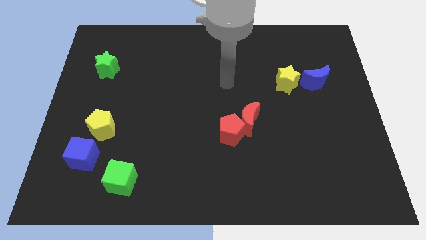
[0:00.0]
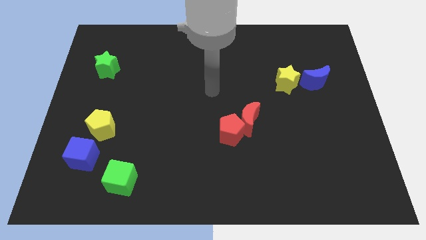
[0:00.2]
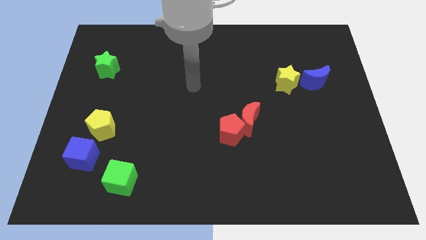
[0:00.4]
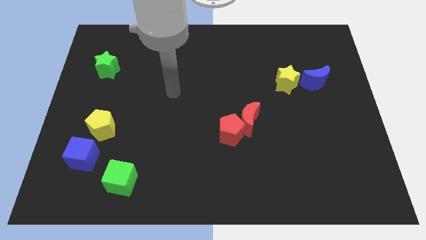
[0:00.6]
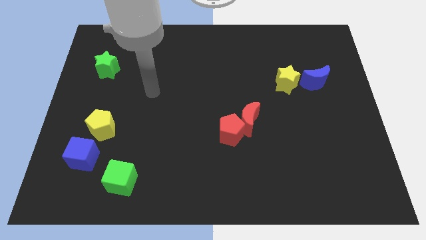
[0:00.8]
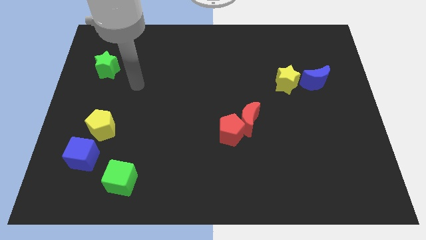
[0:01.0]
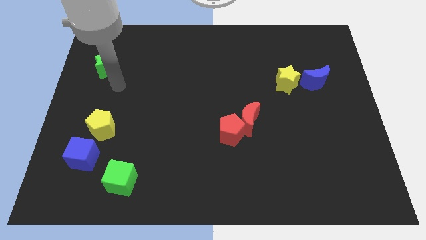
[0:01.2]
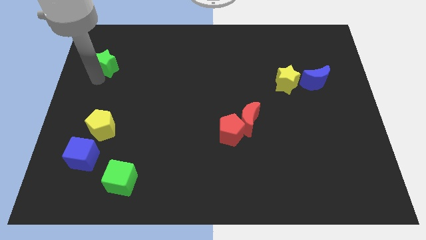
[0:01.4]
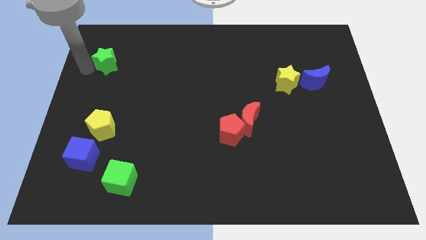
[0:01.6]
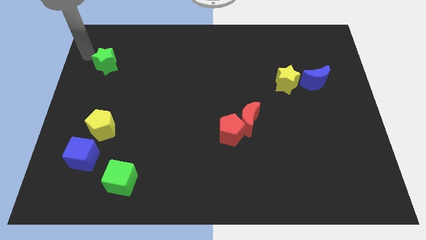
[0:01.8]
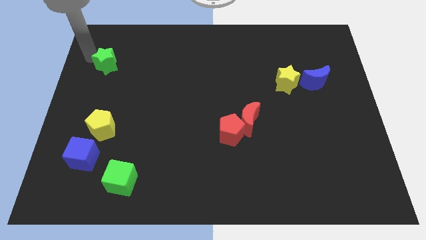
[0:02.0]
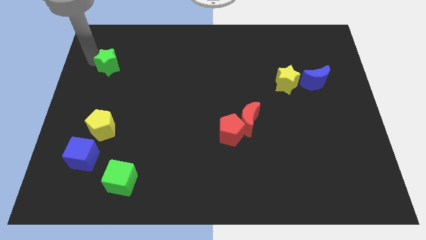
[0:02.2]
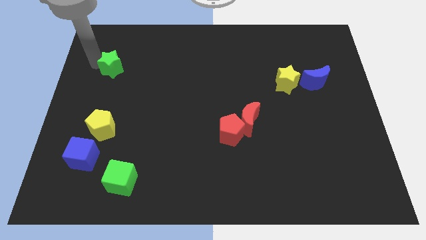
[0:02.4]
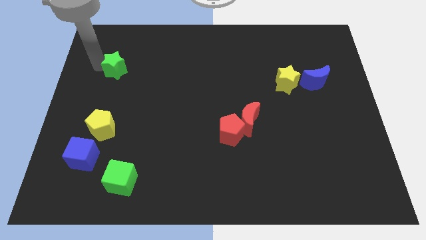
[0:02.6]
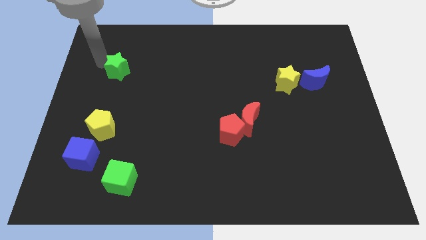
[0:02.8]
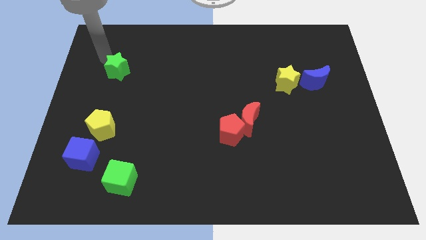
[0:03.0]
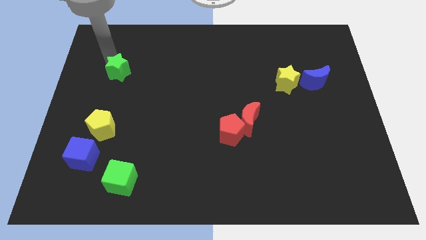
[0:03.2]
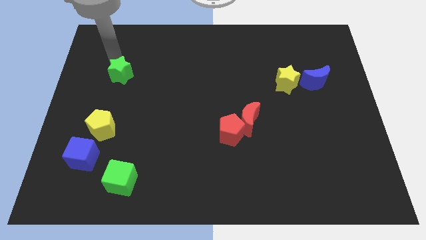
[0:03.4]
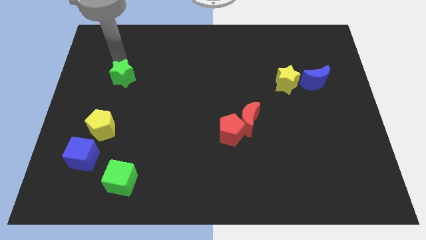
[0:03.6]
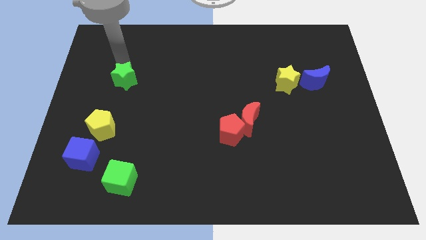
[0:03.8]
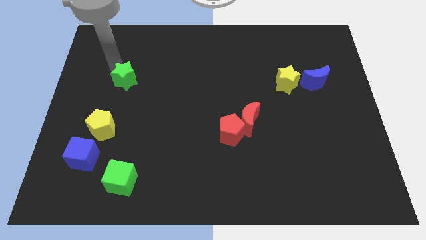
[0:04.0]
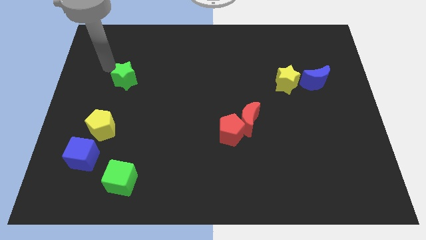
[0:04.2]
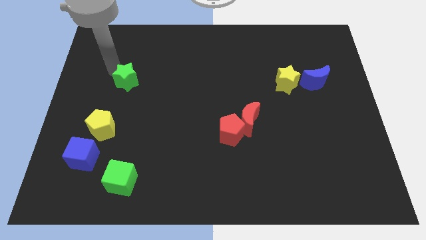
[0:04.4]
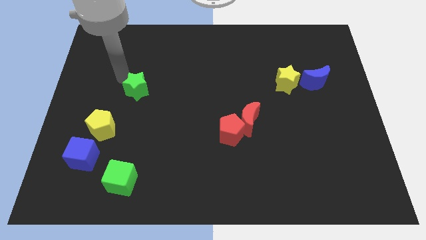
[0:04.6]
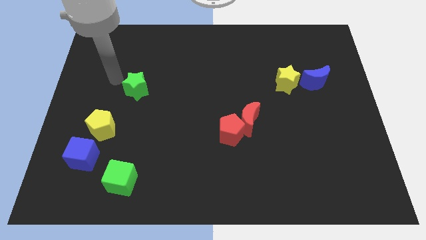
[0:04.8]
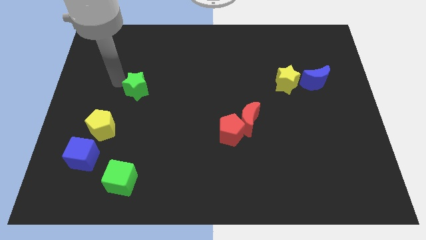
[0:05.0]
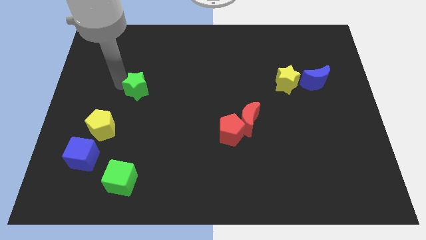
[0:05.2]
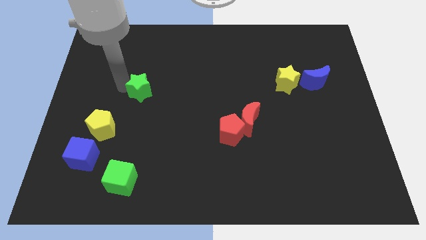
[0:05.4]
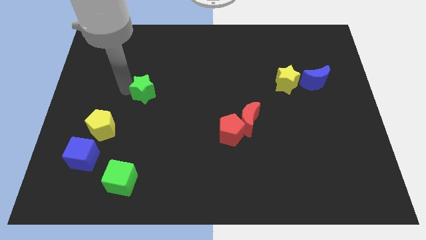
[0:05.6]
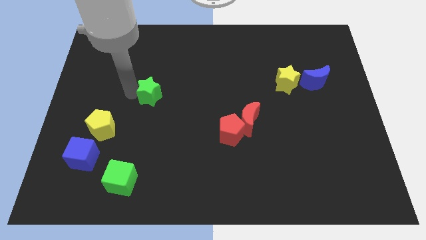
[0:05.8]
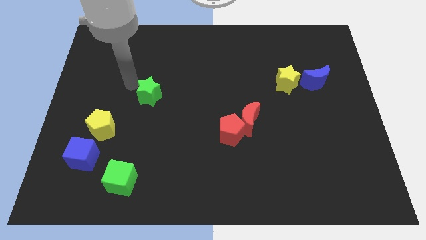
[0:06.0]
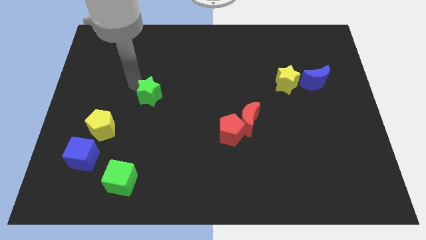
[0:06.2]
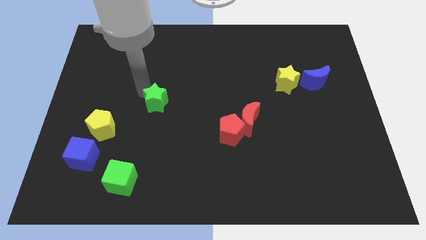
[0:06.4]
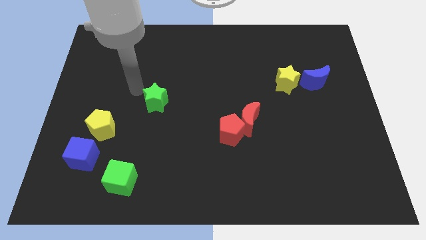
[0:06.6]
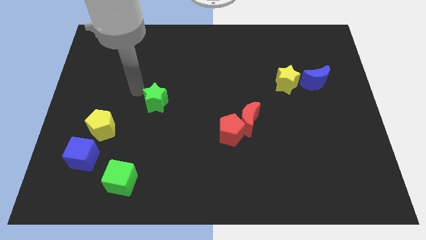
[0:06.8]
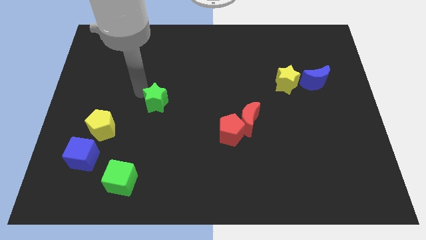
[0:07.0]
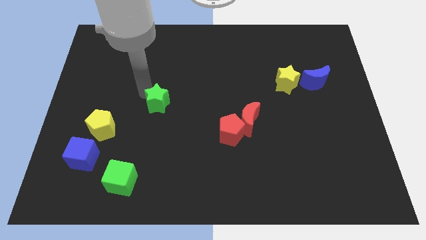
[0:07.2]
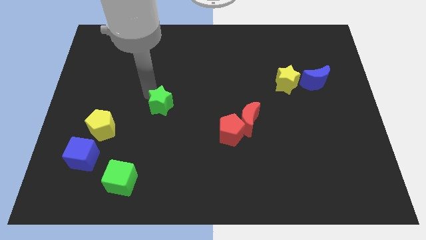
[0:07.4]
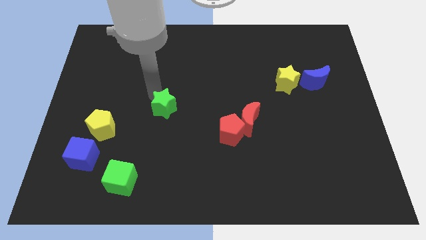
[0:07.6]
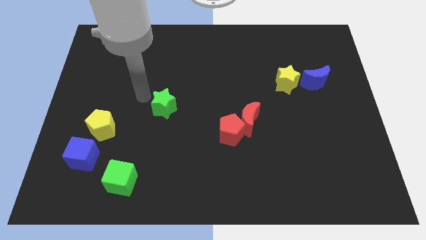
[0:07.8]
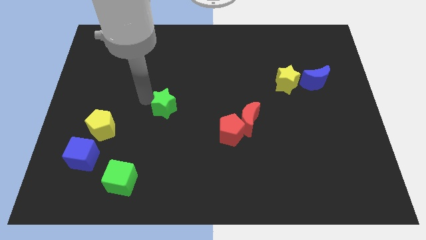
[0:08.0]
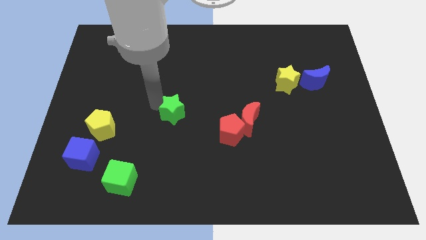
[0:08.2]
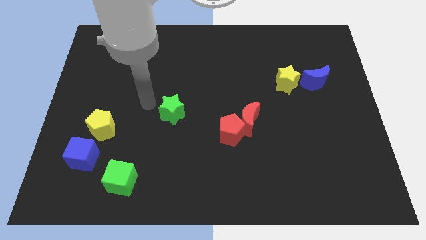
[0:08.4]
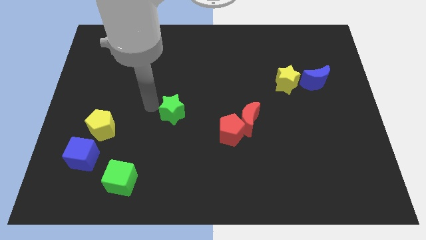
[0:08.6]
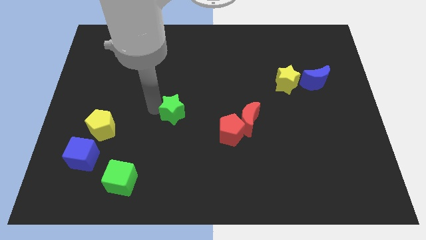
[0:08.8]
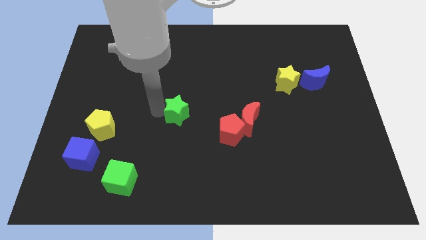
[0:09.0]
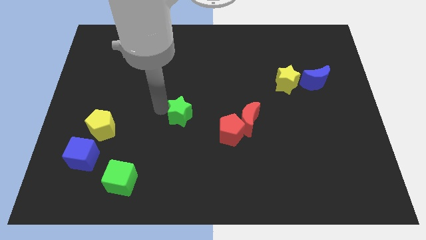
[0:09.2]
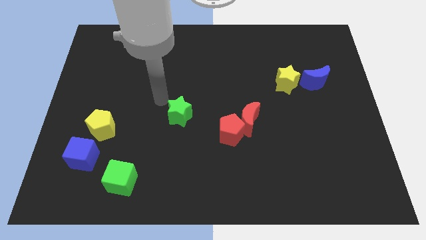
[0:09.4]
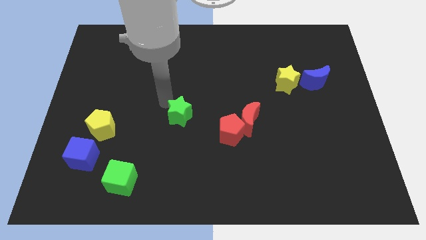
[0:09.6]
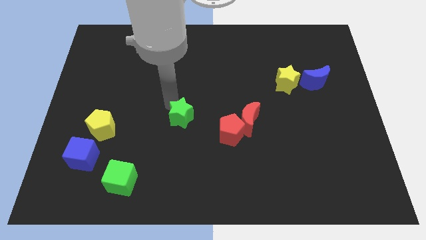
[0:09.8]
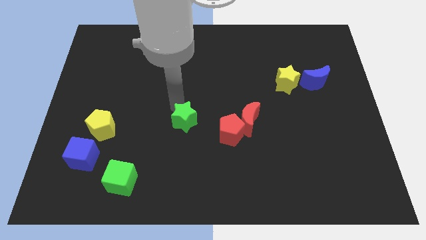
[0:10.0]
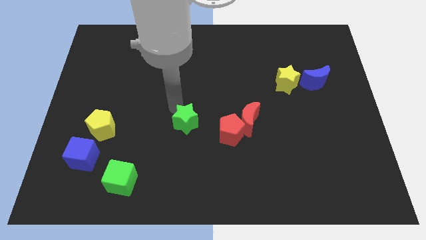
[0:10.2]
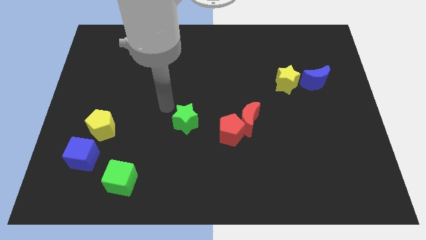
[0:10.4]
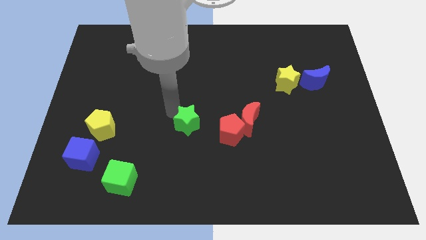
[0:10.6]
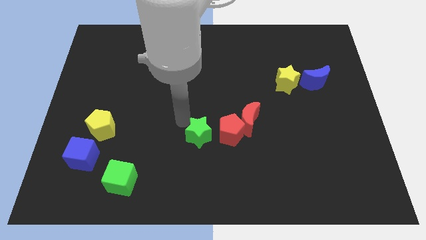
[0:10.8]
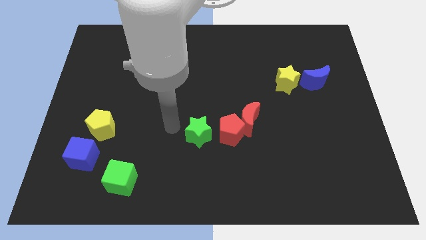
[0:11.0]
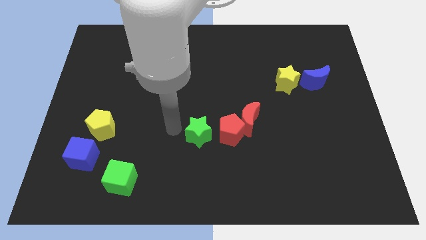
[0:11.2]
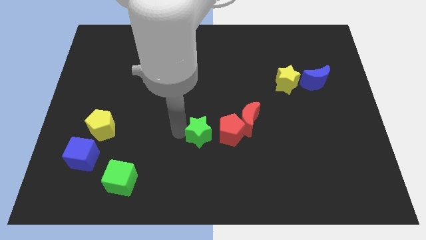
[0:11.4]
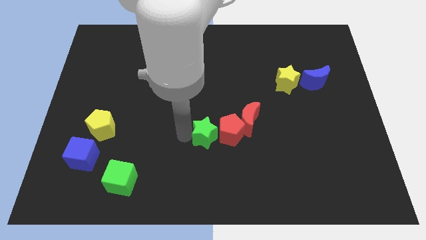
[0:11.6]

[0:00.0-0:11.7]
move the green star diagonally down and to the left of the red moon

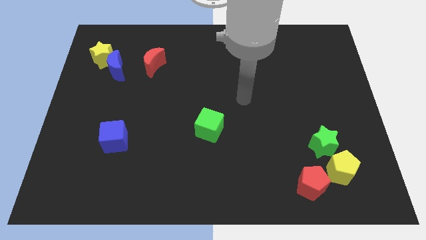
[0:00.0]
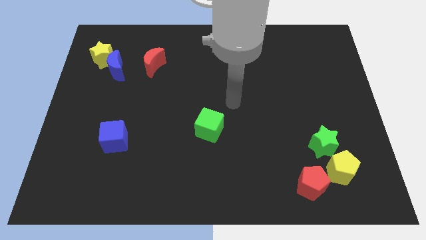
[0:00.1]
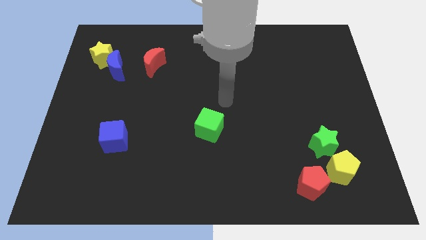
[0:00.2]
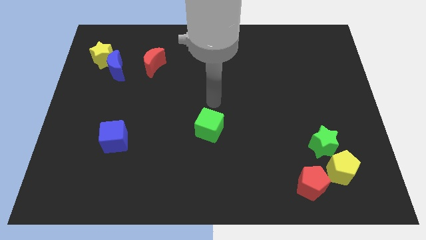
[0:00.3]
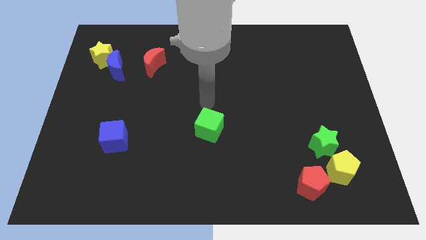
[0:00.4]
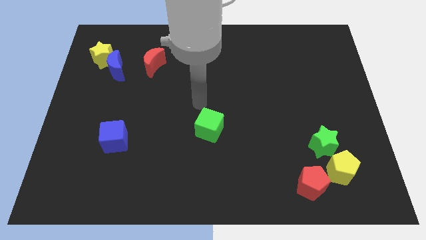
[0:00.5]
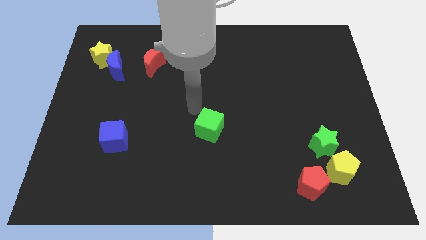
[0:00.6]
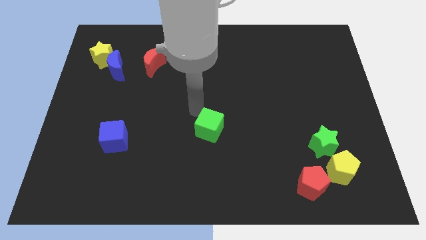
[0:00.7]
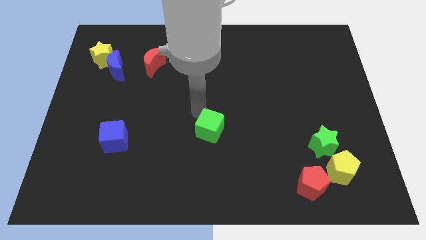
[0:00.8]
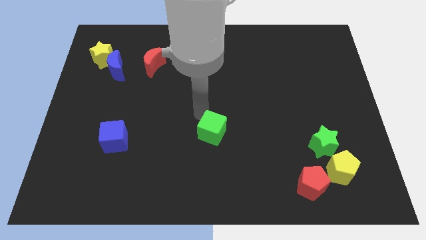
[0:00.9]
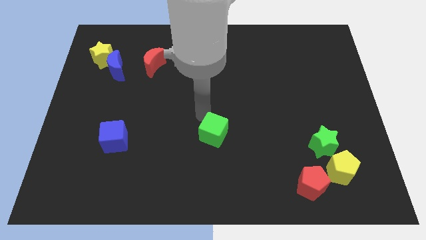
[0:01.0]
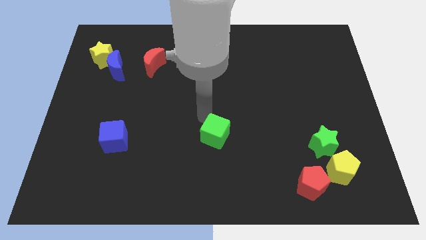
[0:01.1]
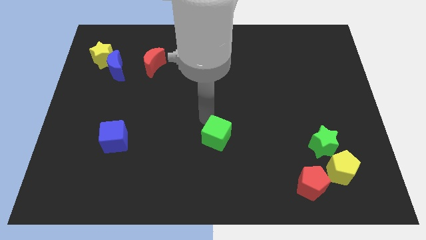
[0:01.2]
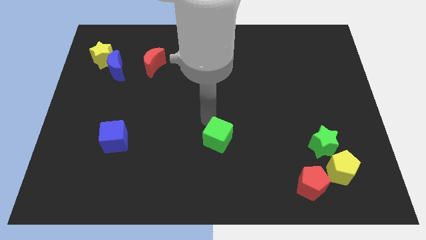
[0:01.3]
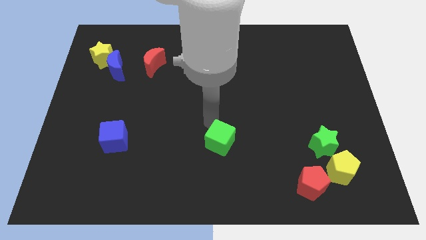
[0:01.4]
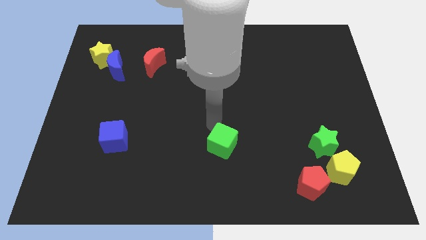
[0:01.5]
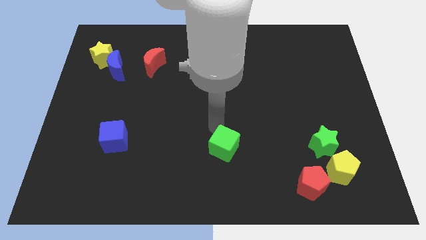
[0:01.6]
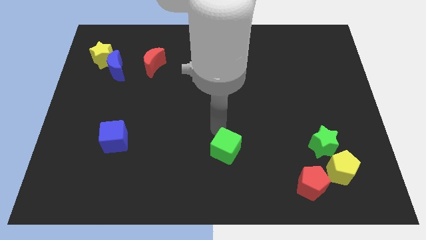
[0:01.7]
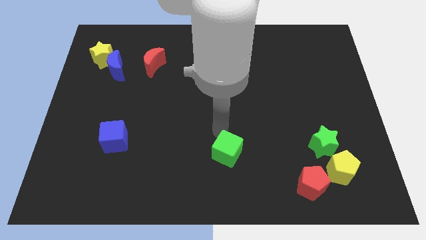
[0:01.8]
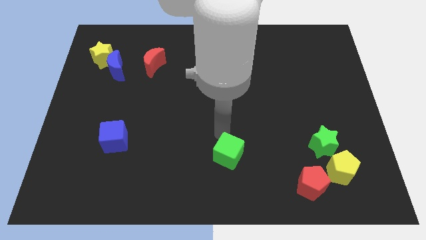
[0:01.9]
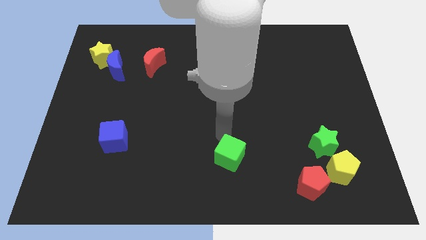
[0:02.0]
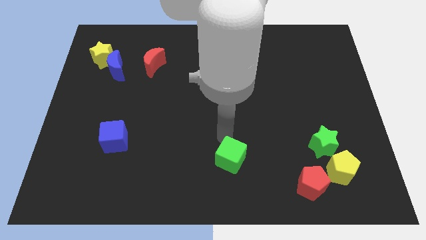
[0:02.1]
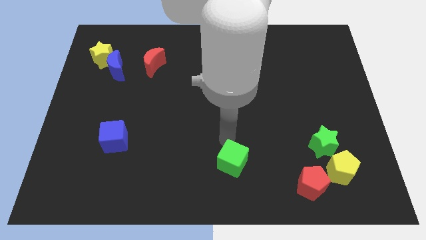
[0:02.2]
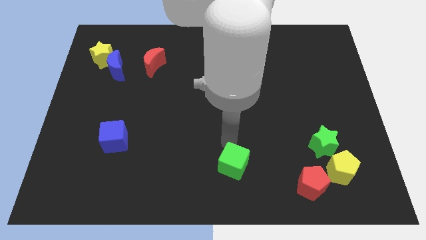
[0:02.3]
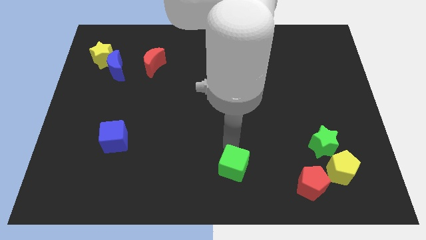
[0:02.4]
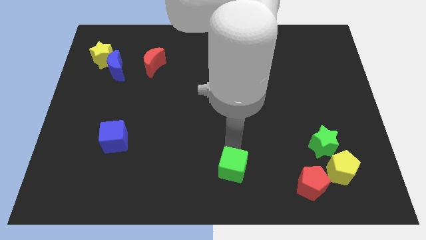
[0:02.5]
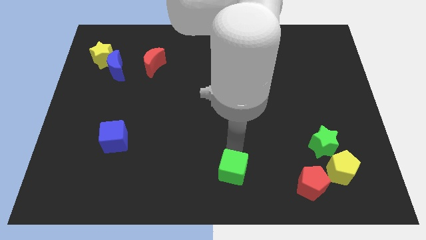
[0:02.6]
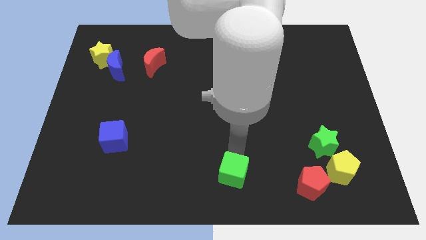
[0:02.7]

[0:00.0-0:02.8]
put the green cube to the left side of the red pentagon
